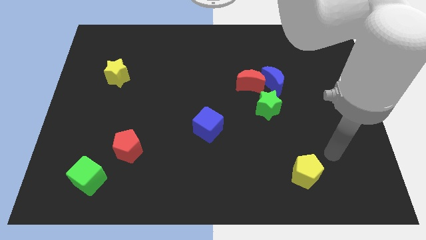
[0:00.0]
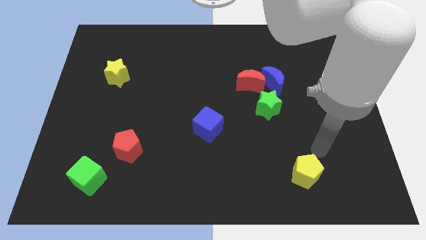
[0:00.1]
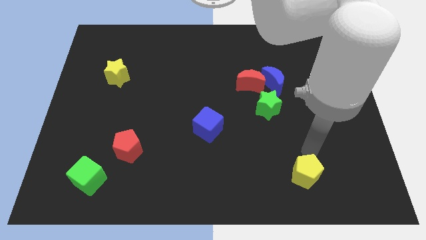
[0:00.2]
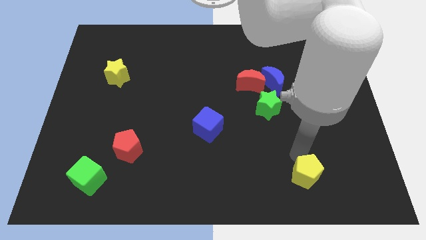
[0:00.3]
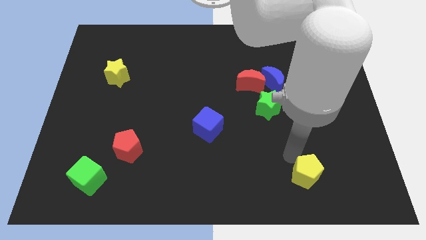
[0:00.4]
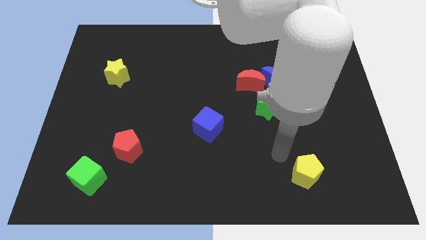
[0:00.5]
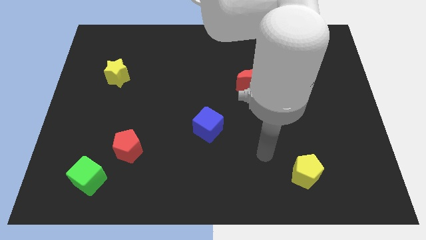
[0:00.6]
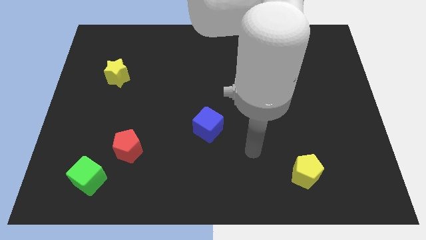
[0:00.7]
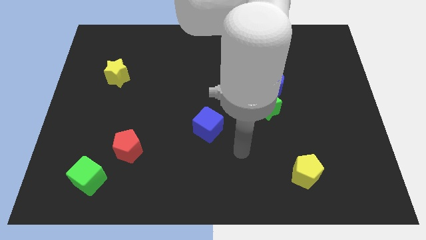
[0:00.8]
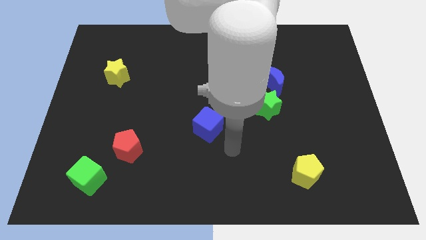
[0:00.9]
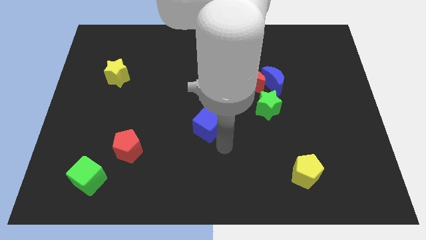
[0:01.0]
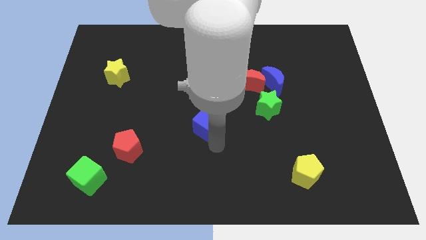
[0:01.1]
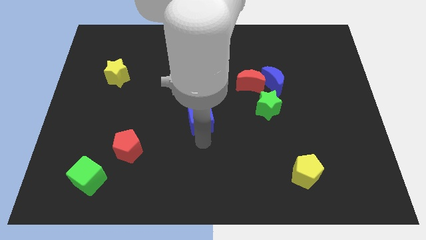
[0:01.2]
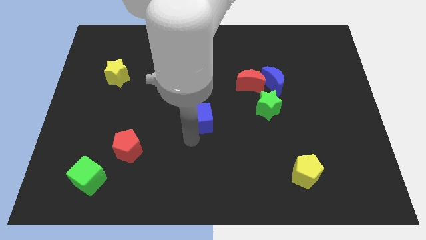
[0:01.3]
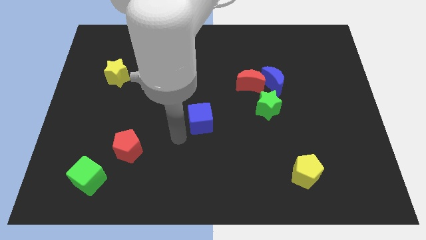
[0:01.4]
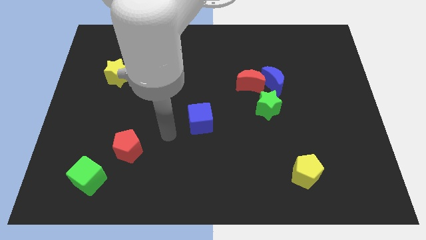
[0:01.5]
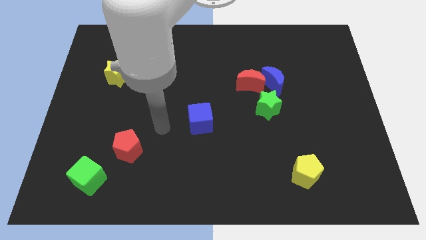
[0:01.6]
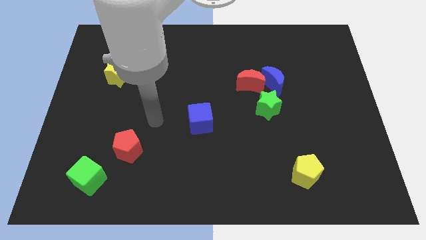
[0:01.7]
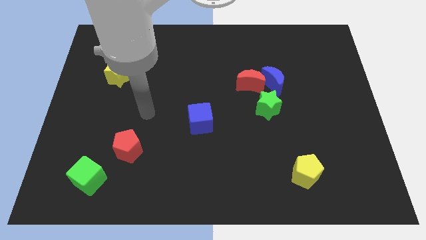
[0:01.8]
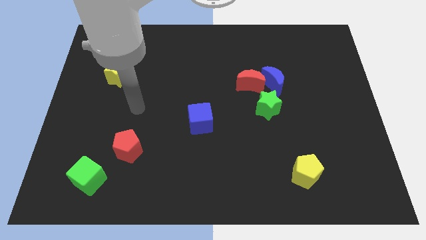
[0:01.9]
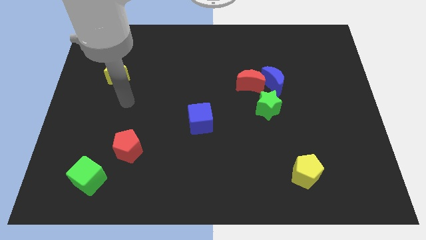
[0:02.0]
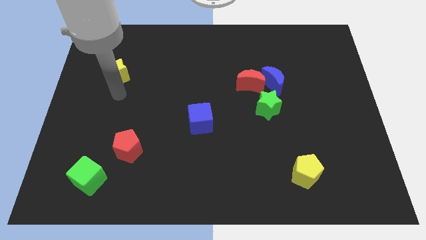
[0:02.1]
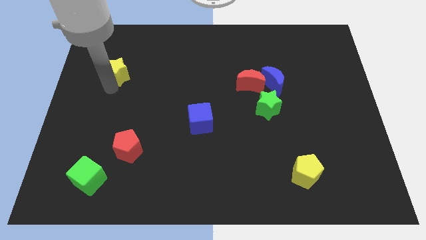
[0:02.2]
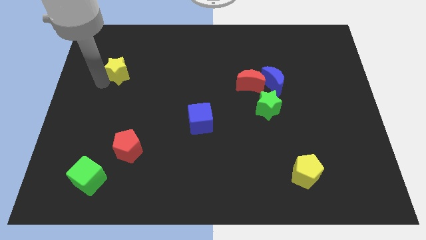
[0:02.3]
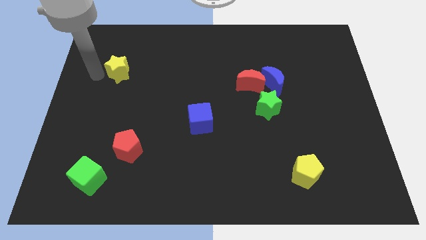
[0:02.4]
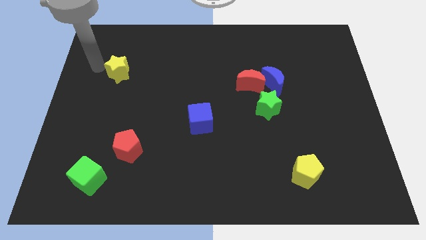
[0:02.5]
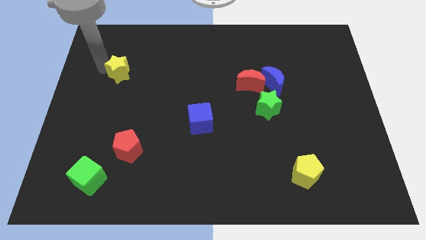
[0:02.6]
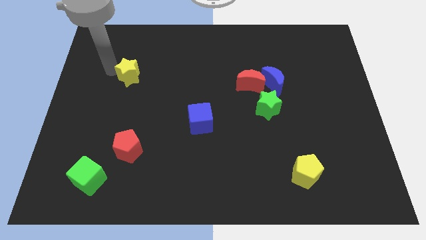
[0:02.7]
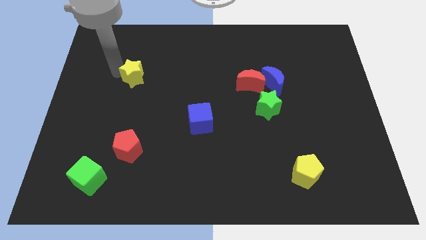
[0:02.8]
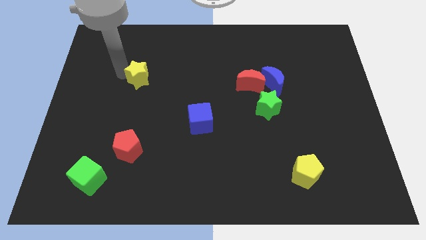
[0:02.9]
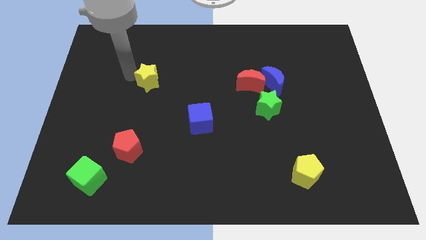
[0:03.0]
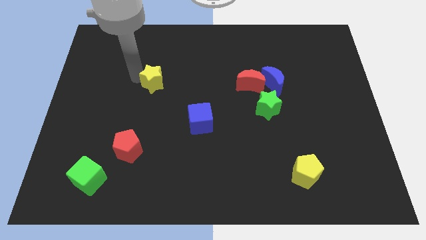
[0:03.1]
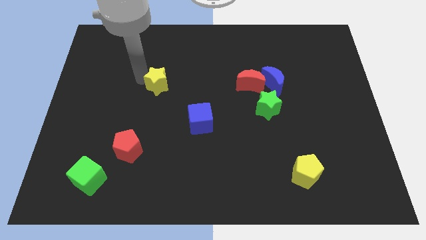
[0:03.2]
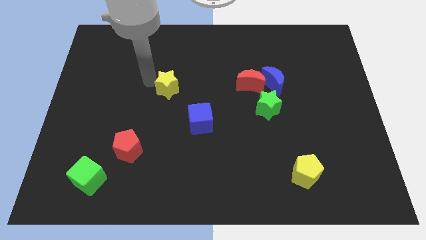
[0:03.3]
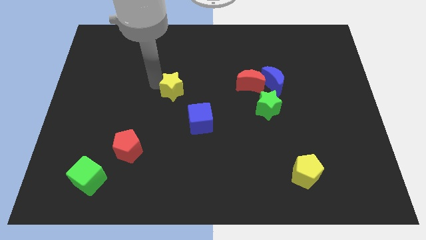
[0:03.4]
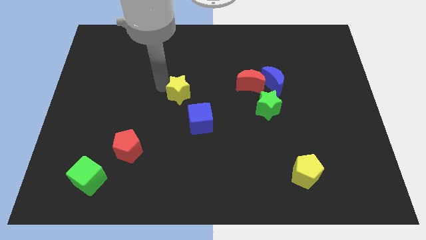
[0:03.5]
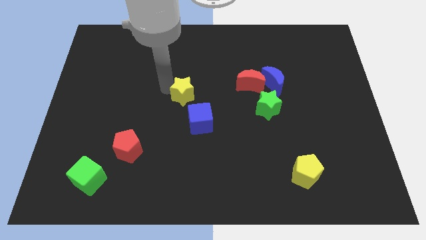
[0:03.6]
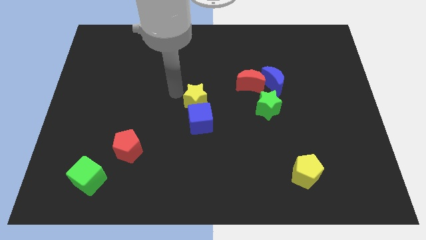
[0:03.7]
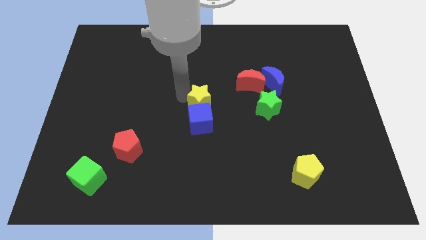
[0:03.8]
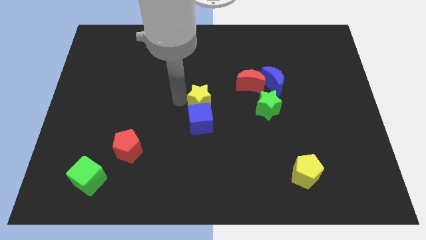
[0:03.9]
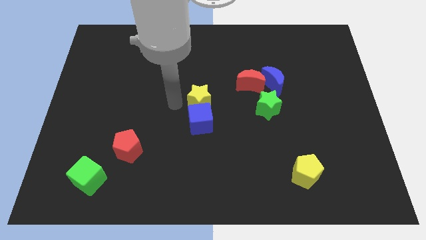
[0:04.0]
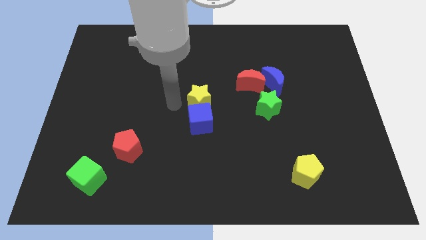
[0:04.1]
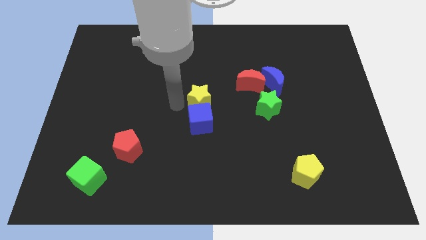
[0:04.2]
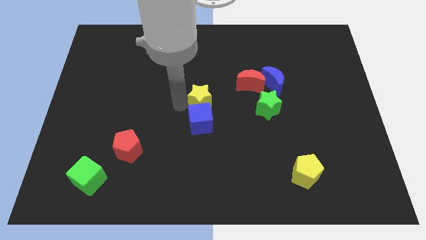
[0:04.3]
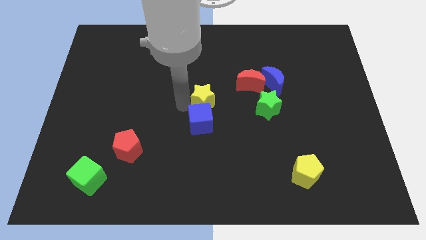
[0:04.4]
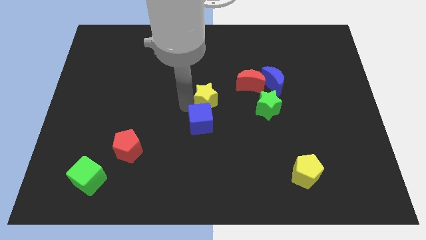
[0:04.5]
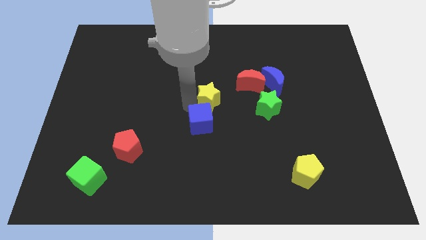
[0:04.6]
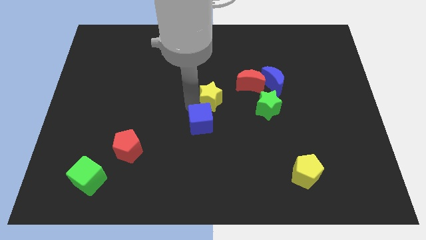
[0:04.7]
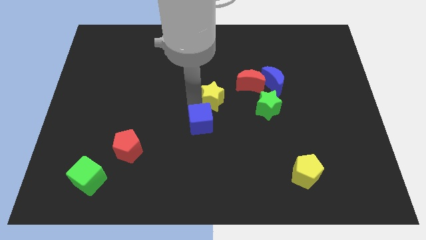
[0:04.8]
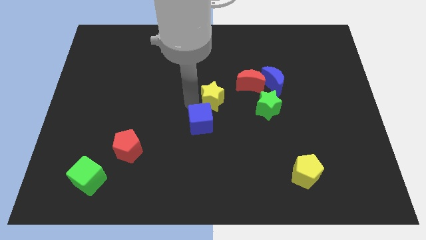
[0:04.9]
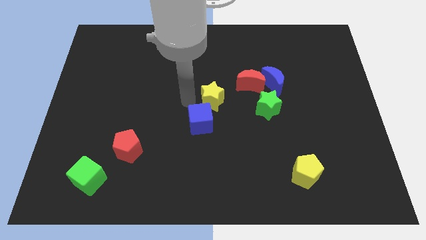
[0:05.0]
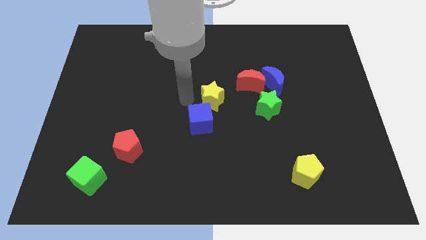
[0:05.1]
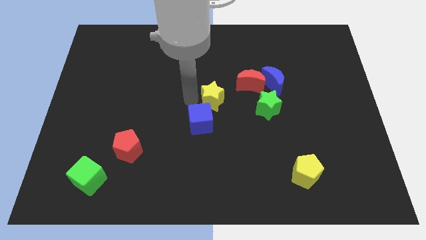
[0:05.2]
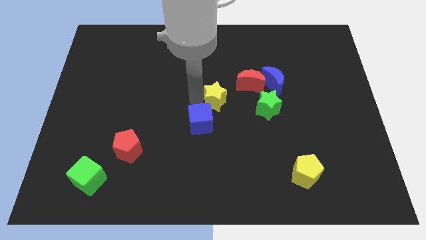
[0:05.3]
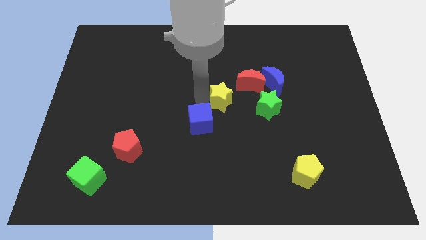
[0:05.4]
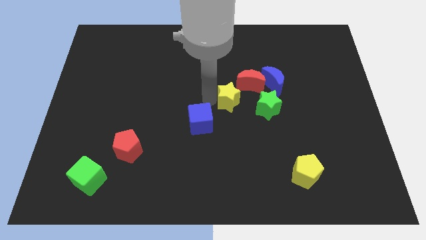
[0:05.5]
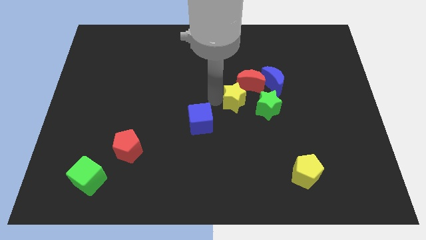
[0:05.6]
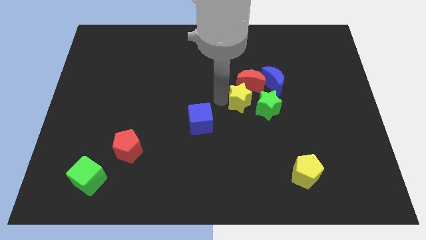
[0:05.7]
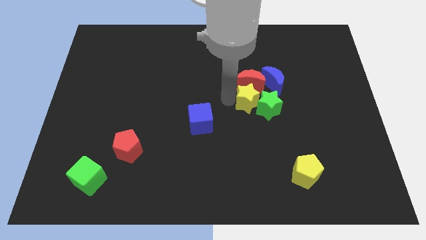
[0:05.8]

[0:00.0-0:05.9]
push the yellow star to the green star
